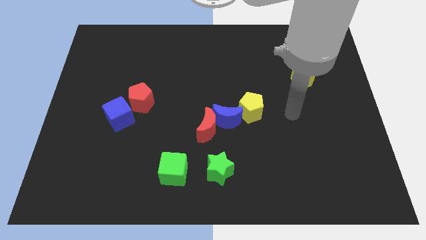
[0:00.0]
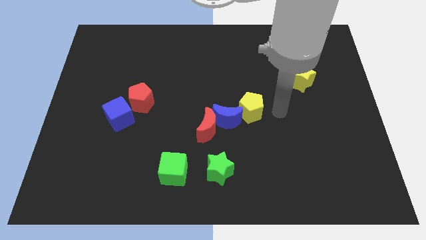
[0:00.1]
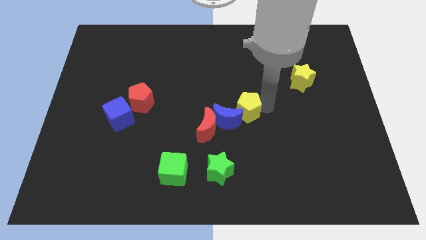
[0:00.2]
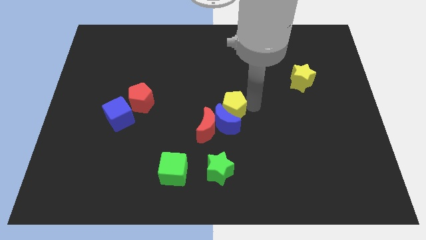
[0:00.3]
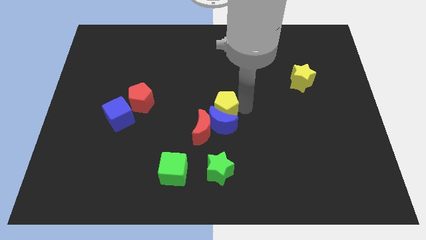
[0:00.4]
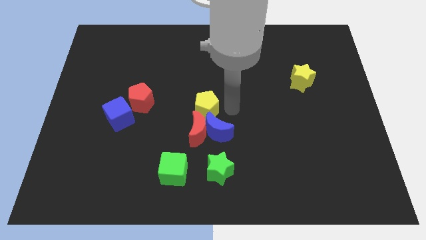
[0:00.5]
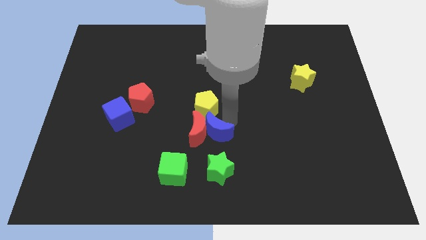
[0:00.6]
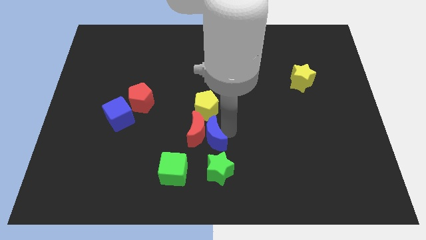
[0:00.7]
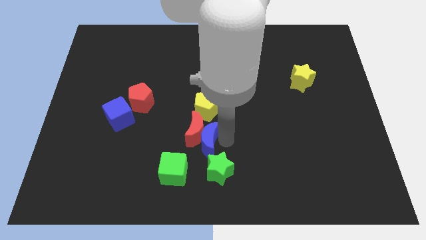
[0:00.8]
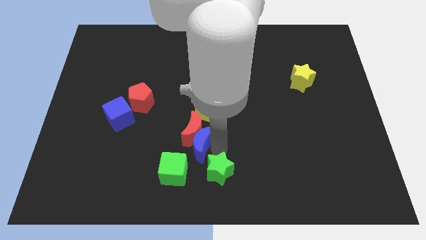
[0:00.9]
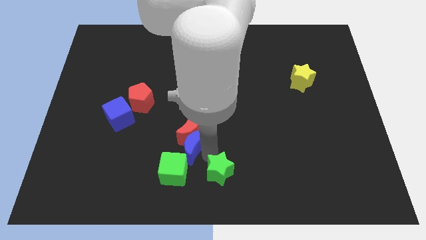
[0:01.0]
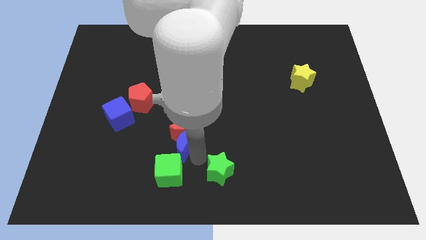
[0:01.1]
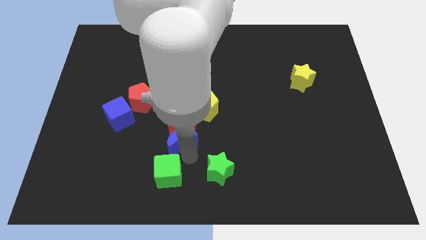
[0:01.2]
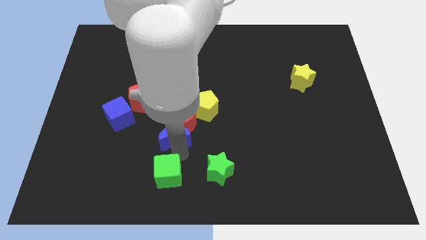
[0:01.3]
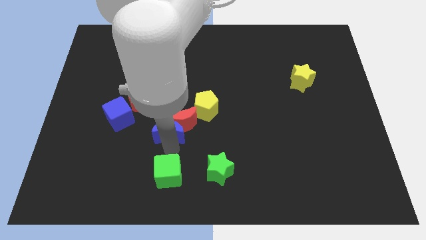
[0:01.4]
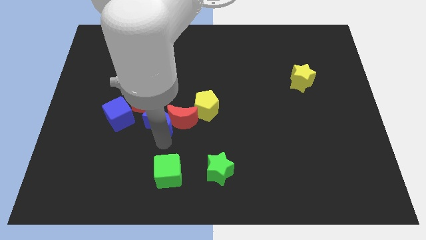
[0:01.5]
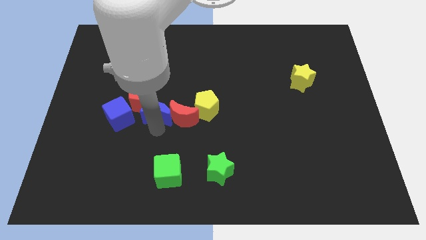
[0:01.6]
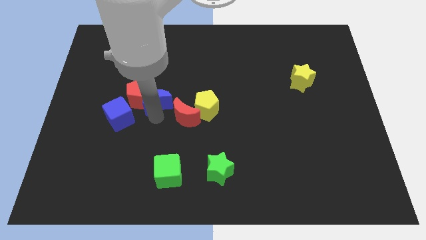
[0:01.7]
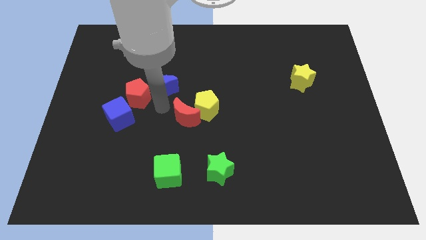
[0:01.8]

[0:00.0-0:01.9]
move the red moon away from the blue moon

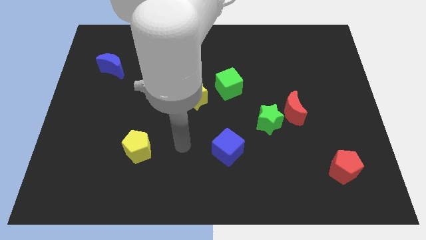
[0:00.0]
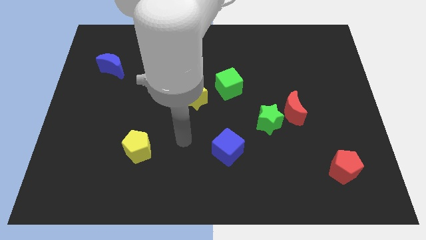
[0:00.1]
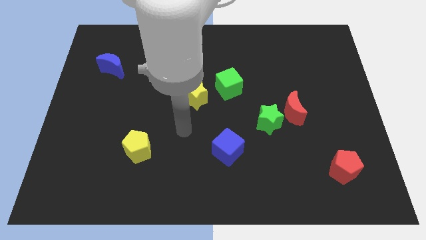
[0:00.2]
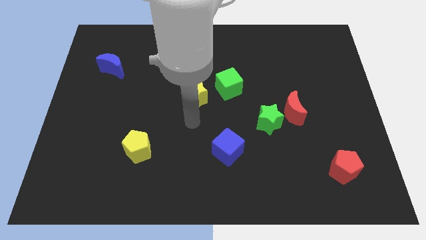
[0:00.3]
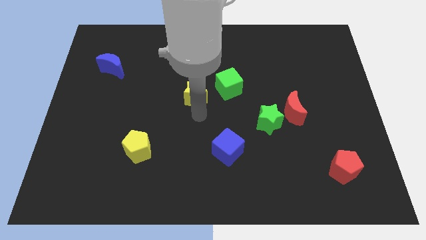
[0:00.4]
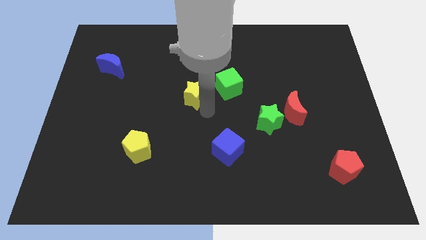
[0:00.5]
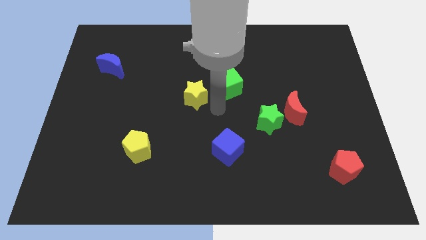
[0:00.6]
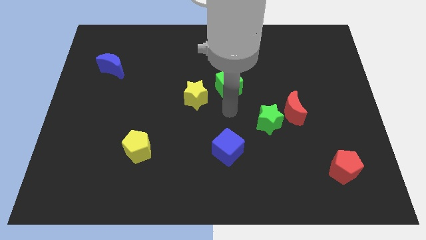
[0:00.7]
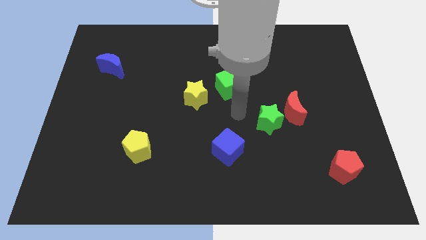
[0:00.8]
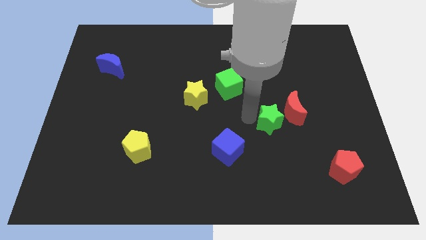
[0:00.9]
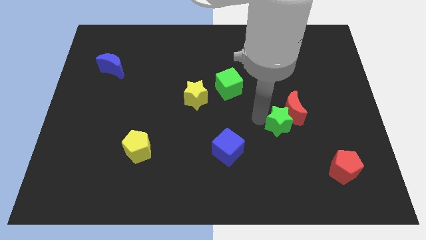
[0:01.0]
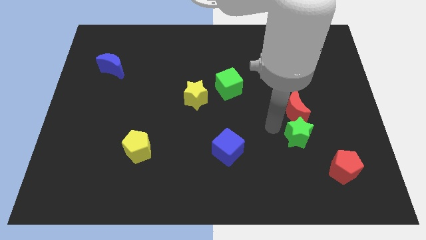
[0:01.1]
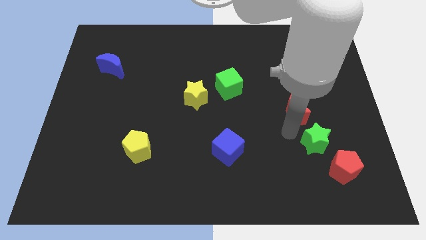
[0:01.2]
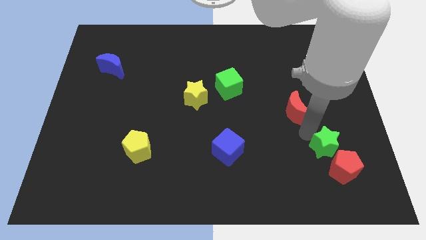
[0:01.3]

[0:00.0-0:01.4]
move the red moon away from the green star

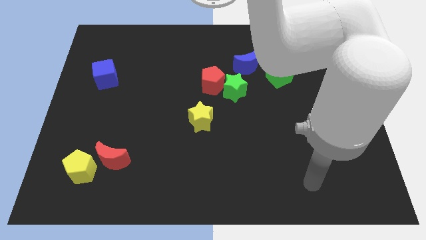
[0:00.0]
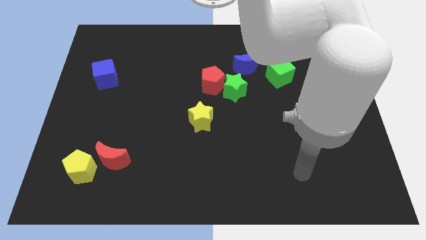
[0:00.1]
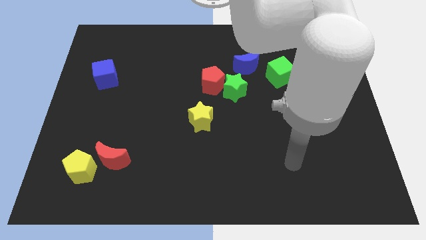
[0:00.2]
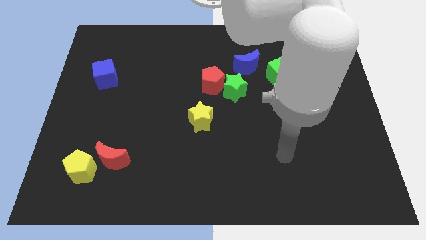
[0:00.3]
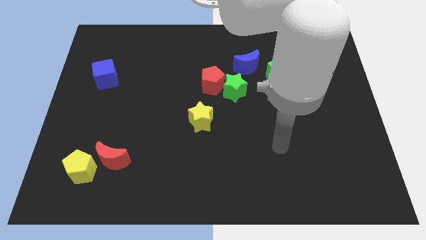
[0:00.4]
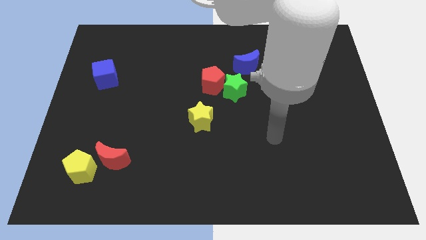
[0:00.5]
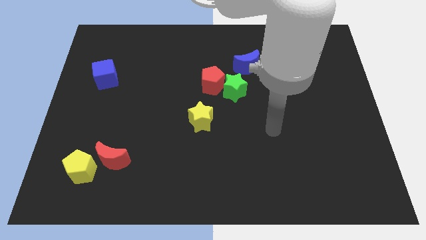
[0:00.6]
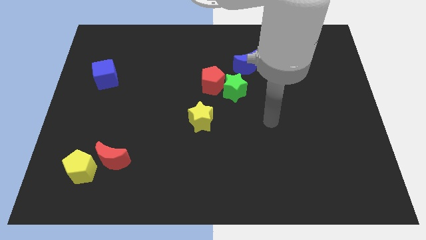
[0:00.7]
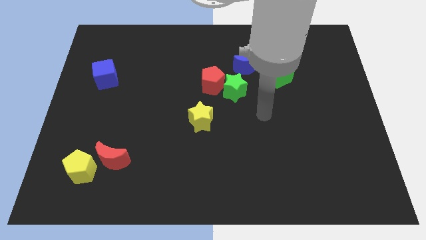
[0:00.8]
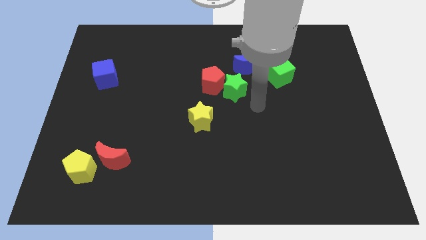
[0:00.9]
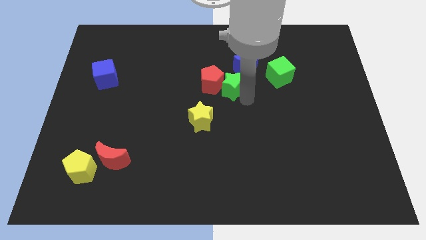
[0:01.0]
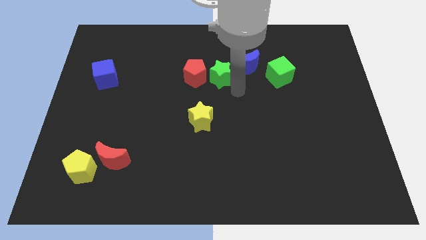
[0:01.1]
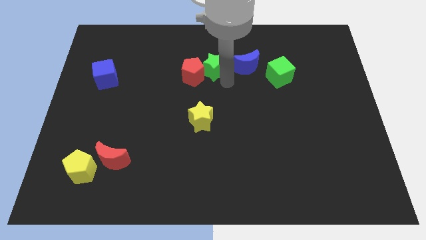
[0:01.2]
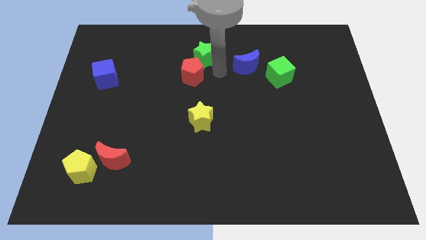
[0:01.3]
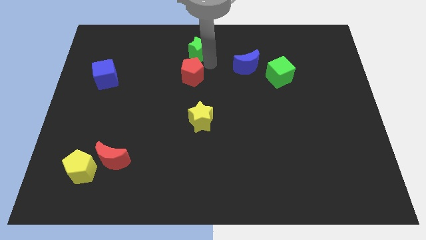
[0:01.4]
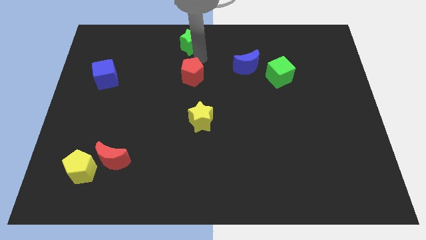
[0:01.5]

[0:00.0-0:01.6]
separate the red pentagon from the green star

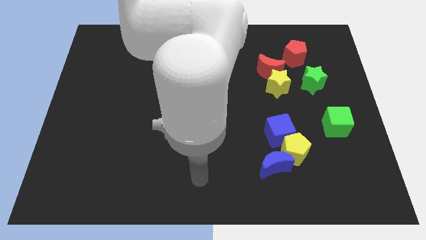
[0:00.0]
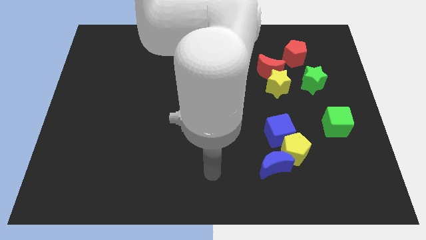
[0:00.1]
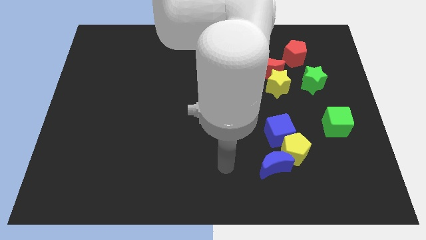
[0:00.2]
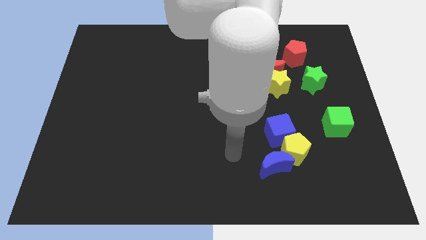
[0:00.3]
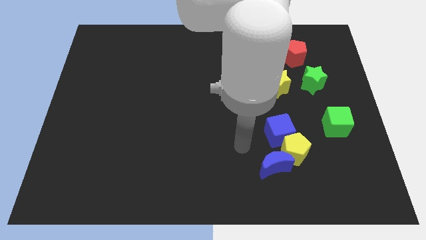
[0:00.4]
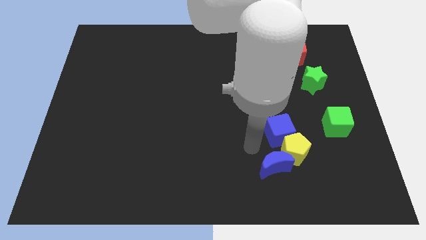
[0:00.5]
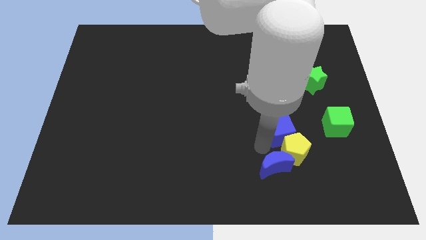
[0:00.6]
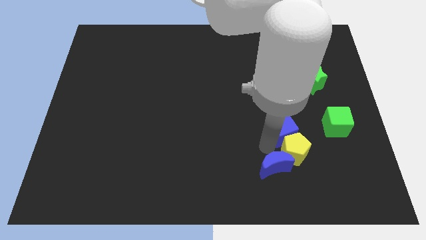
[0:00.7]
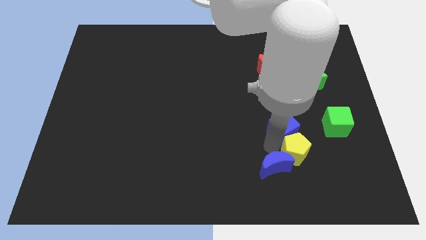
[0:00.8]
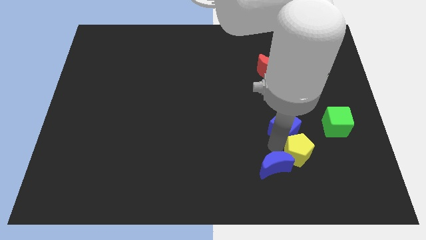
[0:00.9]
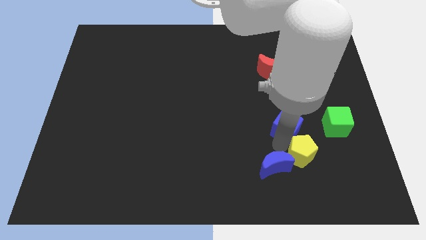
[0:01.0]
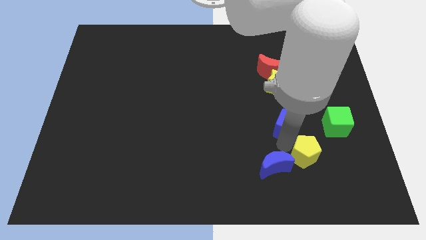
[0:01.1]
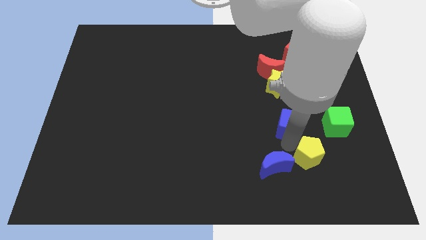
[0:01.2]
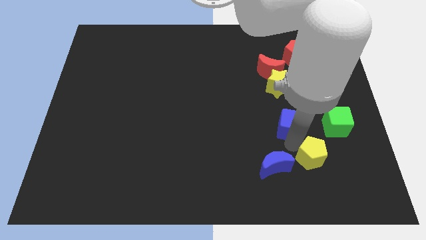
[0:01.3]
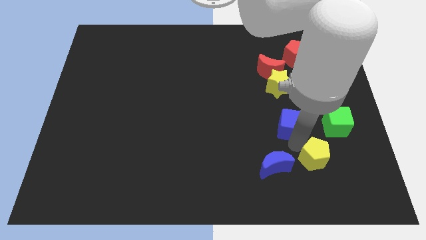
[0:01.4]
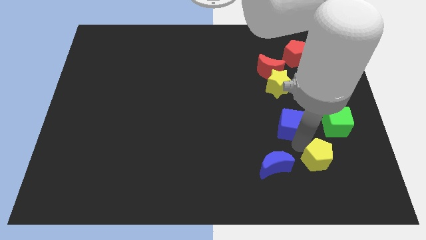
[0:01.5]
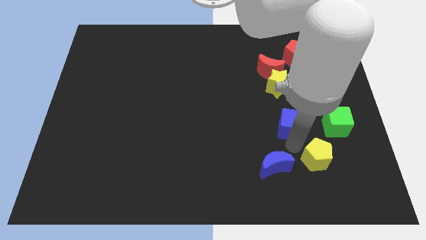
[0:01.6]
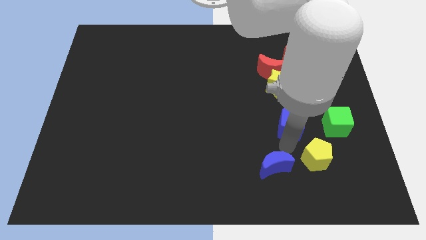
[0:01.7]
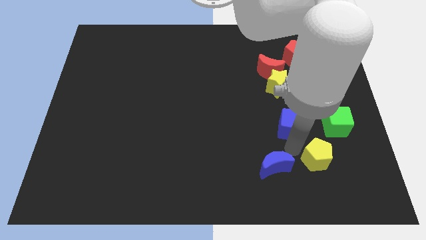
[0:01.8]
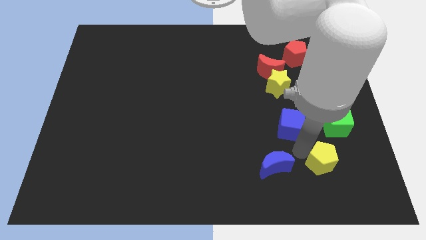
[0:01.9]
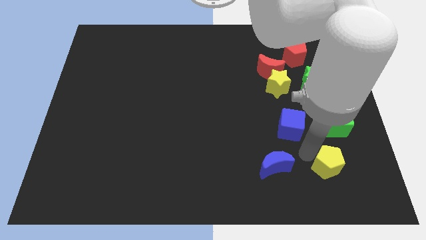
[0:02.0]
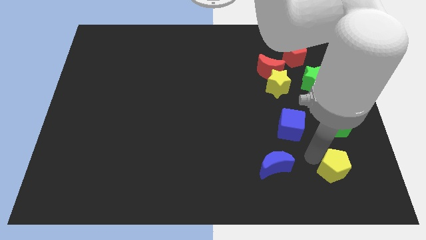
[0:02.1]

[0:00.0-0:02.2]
move the yellow pentagon away from the blue cube and blue moon

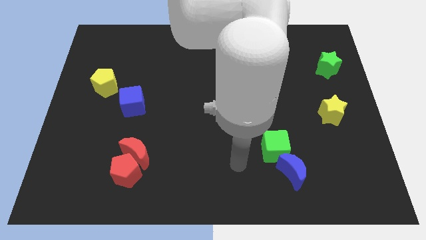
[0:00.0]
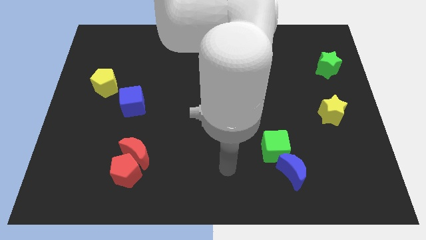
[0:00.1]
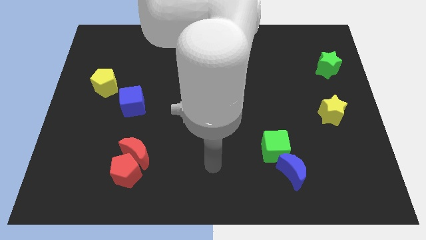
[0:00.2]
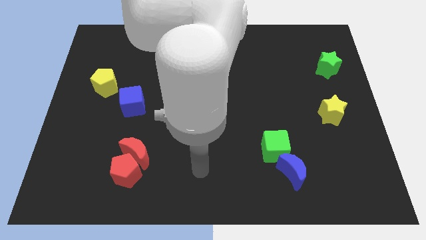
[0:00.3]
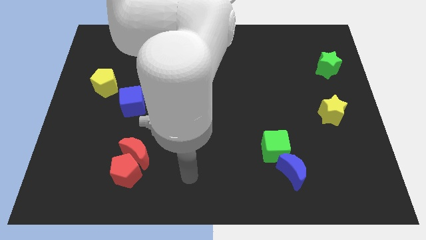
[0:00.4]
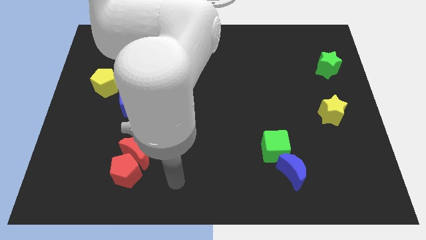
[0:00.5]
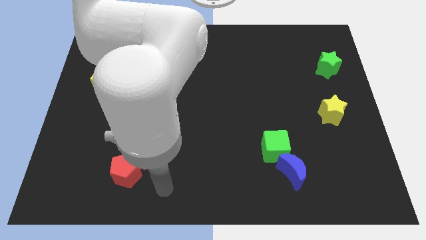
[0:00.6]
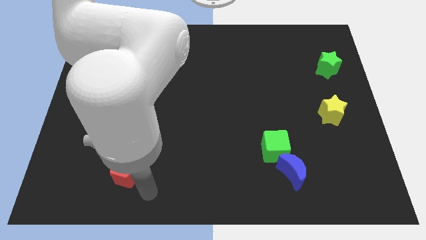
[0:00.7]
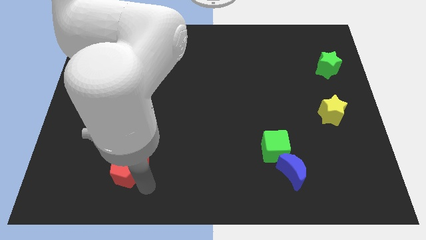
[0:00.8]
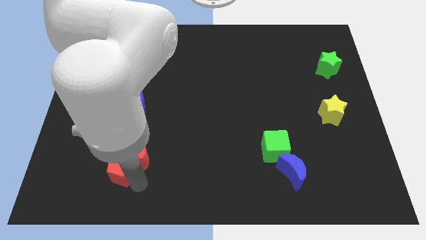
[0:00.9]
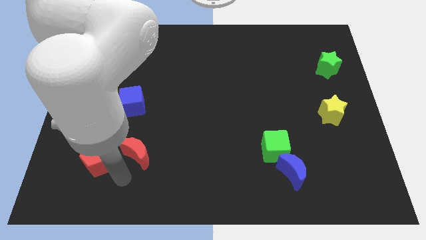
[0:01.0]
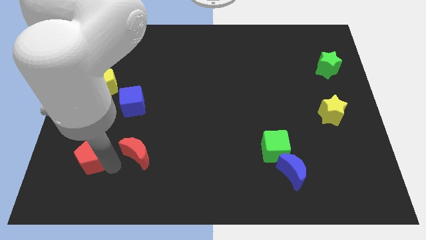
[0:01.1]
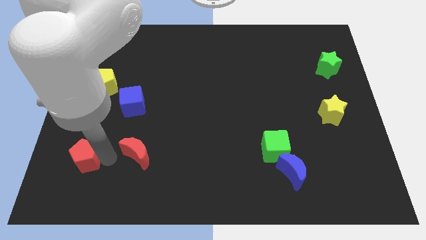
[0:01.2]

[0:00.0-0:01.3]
pull the red moon apart from the red pentagon

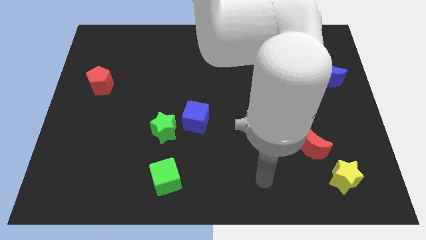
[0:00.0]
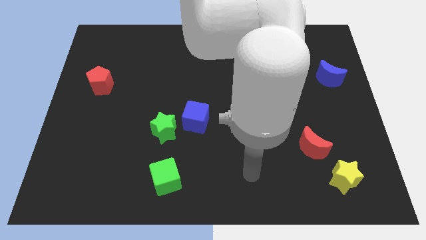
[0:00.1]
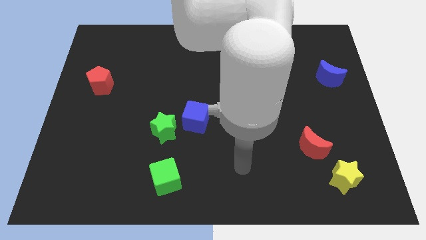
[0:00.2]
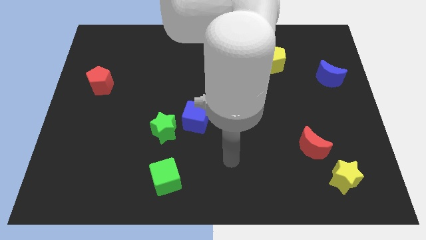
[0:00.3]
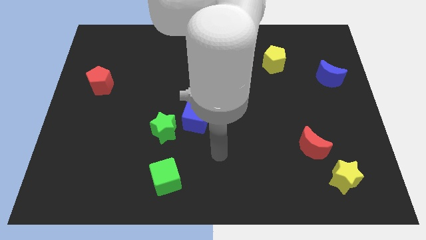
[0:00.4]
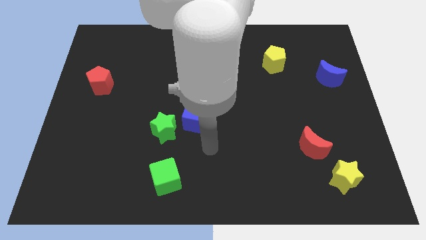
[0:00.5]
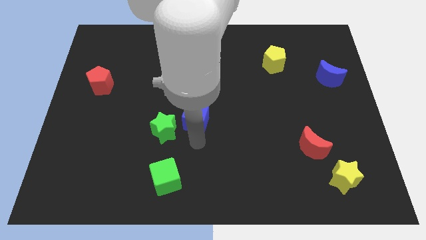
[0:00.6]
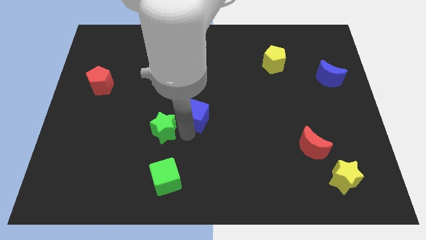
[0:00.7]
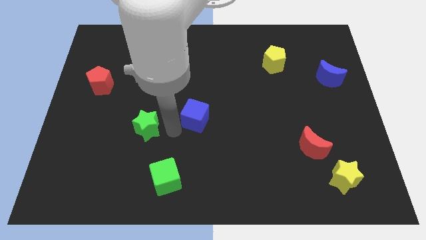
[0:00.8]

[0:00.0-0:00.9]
pull the blue cube apart from the green star

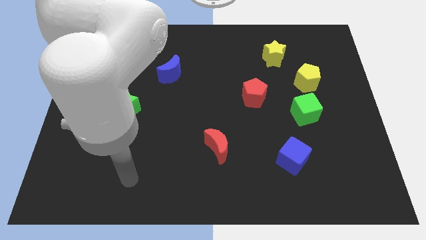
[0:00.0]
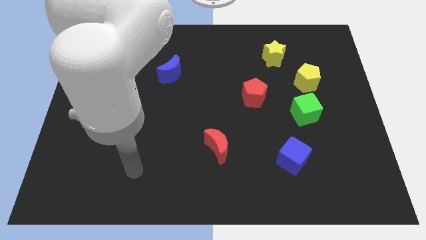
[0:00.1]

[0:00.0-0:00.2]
move the green cube away from the yellow pentagon
